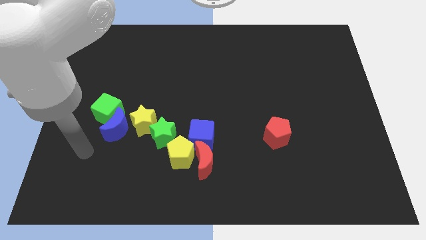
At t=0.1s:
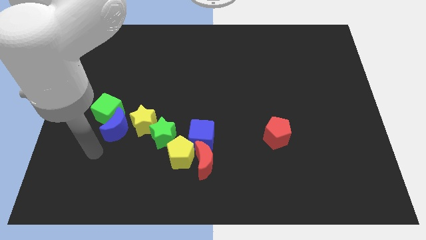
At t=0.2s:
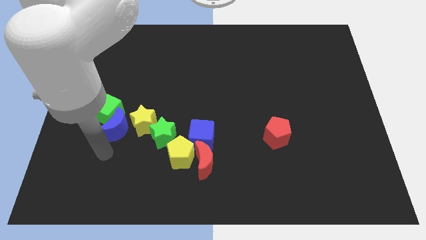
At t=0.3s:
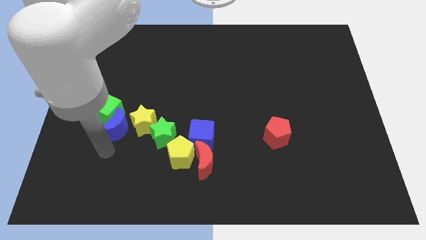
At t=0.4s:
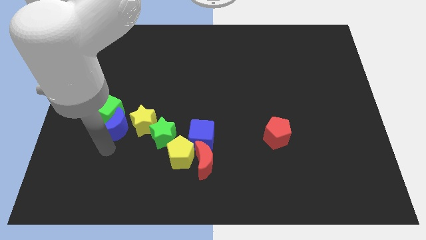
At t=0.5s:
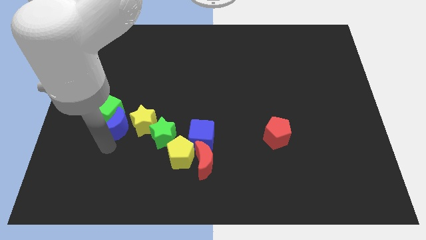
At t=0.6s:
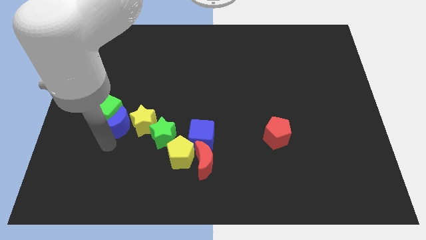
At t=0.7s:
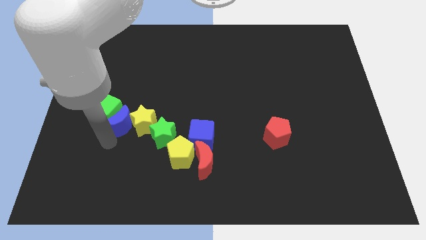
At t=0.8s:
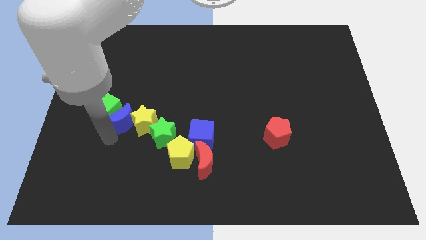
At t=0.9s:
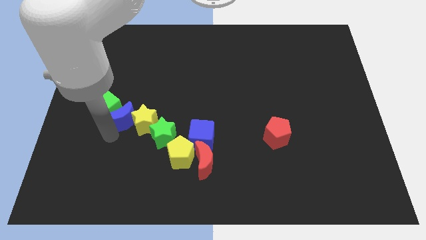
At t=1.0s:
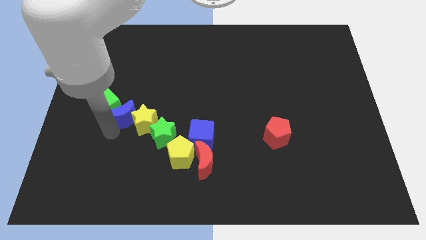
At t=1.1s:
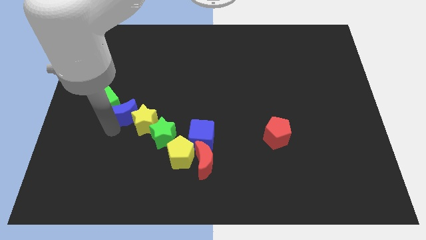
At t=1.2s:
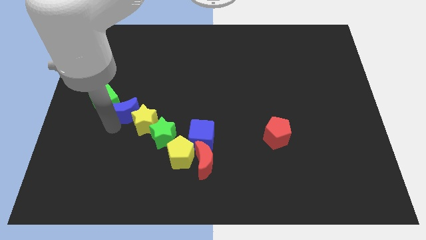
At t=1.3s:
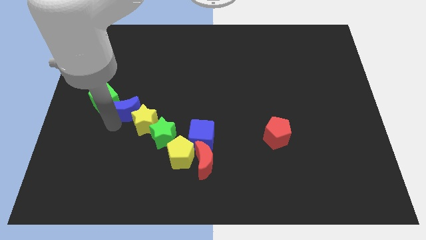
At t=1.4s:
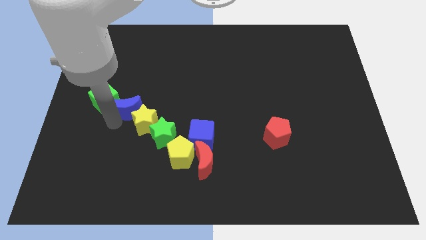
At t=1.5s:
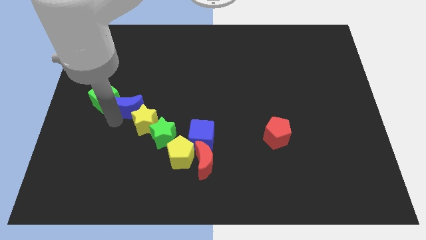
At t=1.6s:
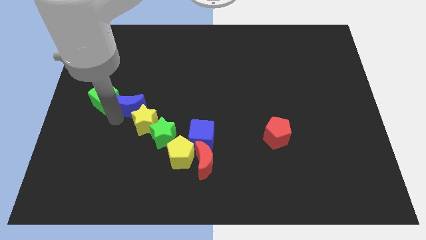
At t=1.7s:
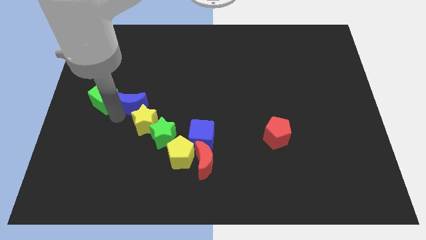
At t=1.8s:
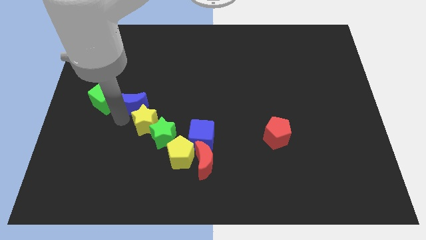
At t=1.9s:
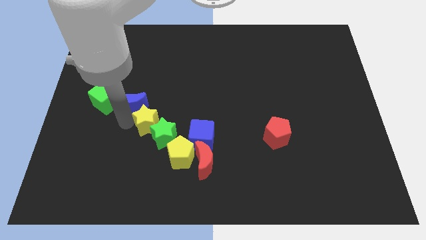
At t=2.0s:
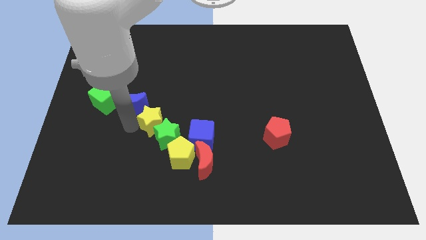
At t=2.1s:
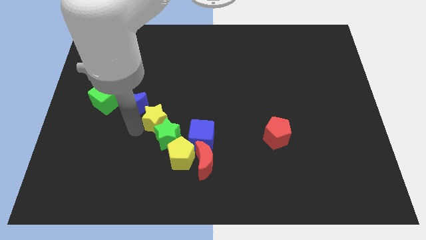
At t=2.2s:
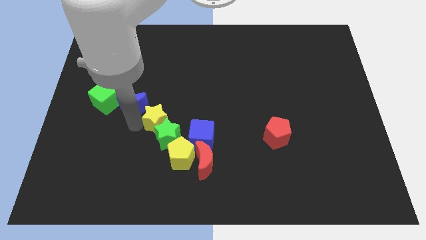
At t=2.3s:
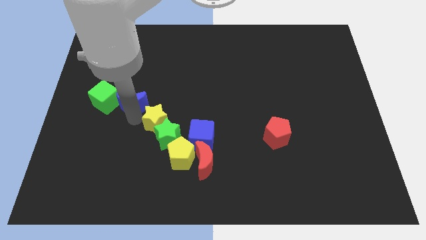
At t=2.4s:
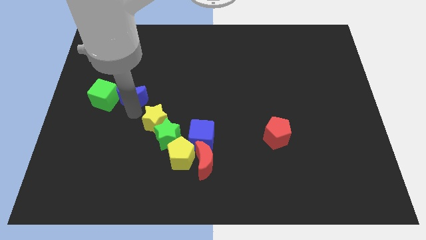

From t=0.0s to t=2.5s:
push the blue moon somewhat up

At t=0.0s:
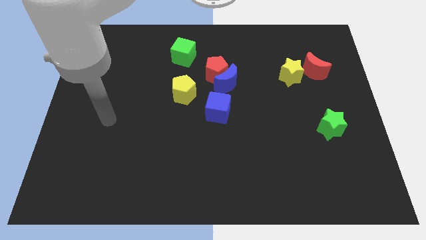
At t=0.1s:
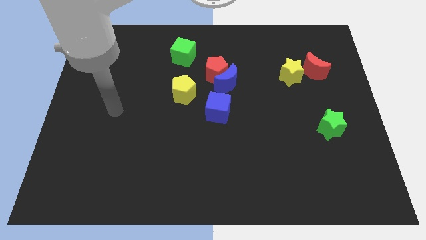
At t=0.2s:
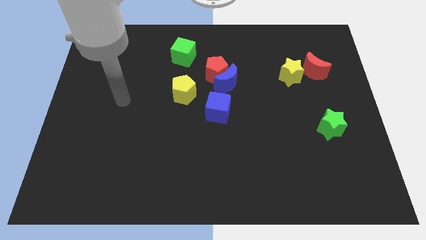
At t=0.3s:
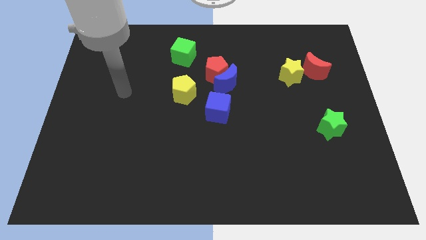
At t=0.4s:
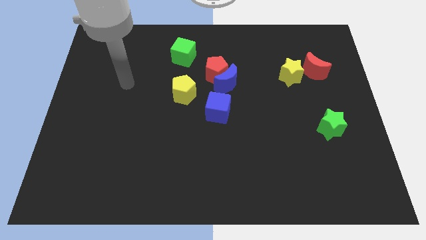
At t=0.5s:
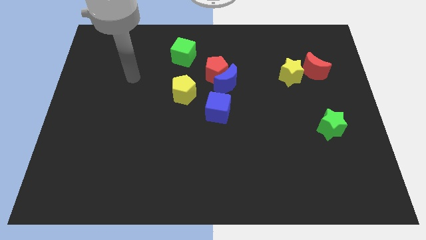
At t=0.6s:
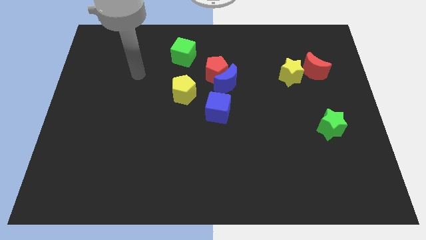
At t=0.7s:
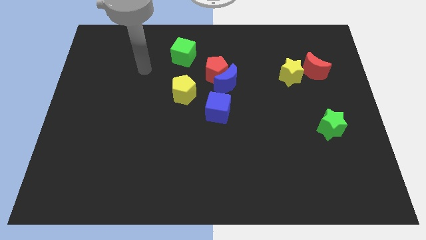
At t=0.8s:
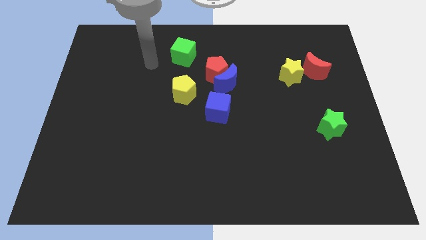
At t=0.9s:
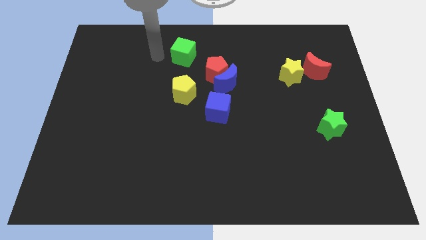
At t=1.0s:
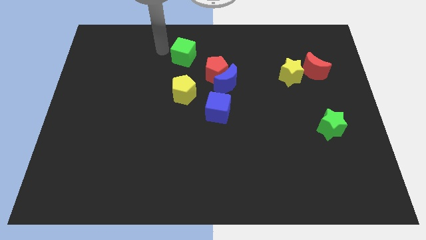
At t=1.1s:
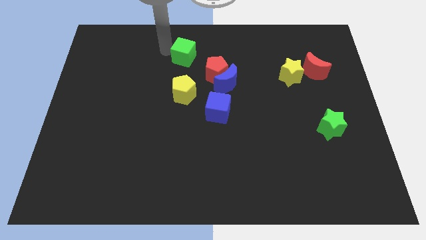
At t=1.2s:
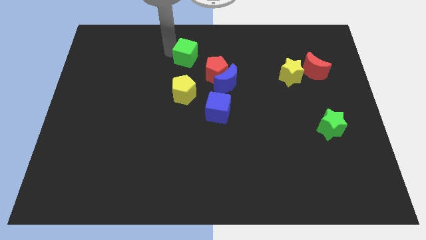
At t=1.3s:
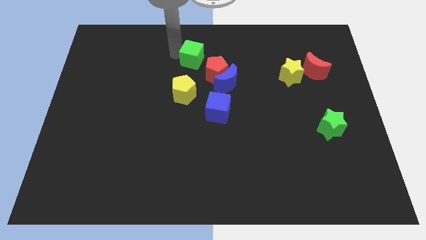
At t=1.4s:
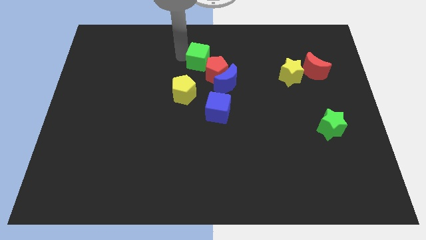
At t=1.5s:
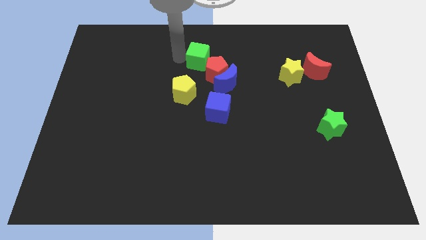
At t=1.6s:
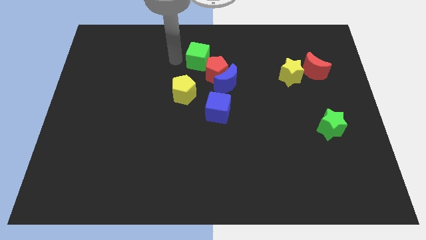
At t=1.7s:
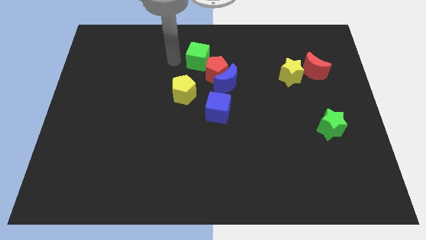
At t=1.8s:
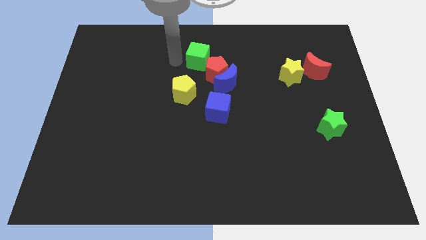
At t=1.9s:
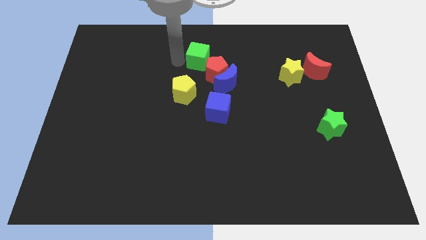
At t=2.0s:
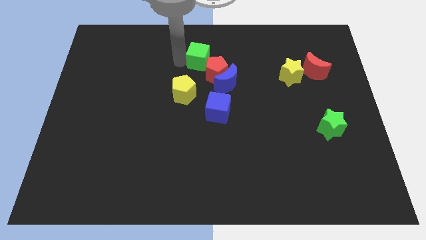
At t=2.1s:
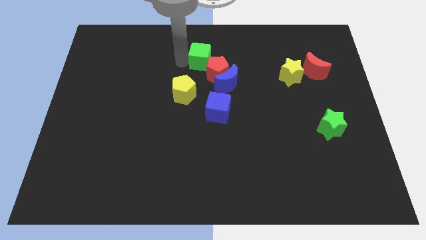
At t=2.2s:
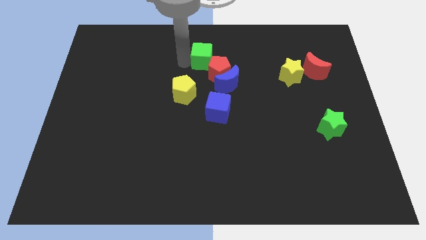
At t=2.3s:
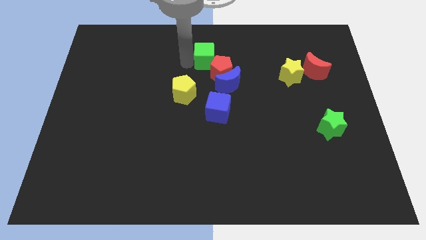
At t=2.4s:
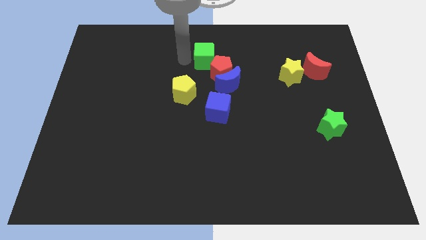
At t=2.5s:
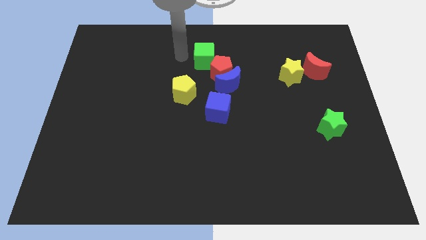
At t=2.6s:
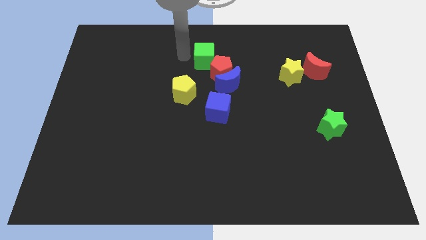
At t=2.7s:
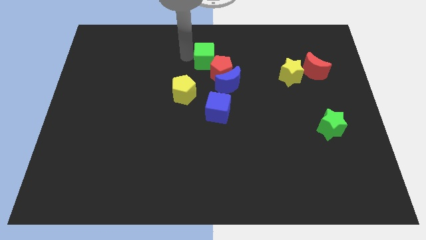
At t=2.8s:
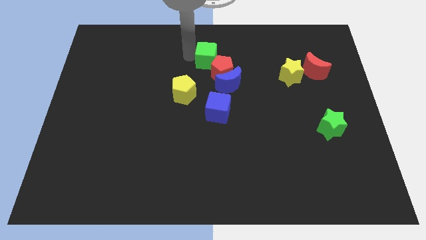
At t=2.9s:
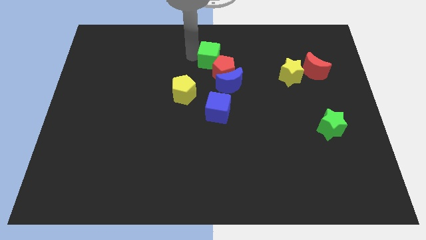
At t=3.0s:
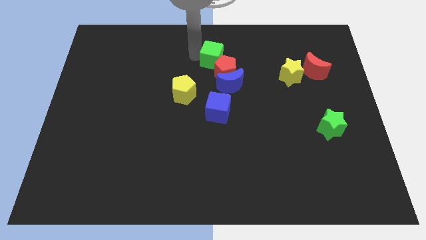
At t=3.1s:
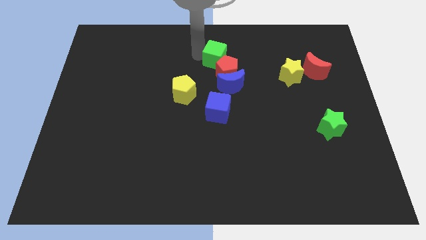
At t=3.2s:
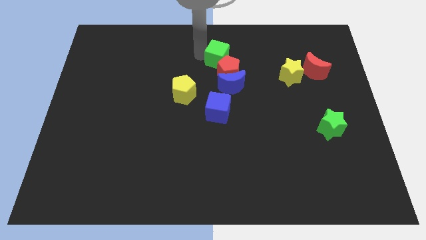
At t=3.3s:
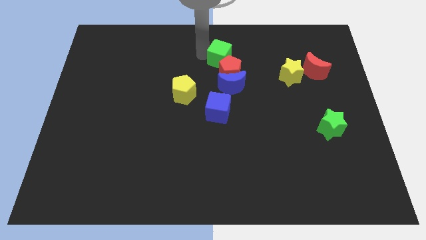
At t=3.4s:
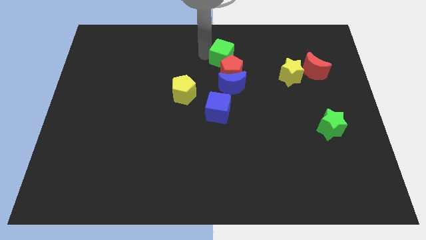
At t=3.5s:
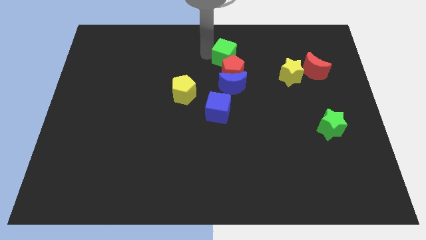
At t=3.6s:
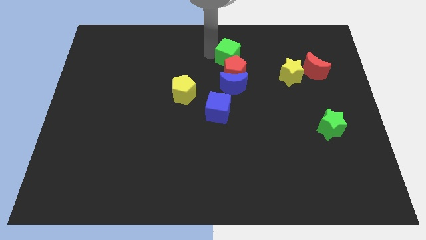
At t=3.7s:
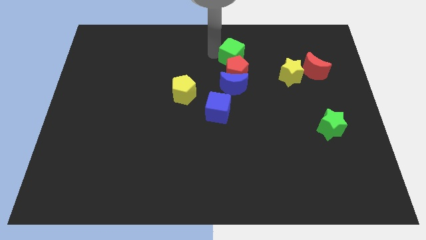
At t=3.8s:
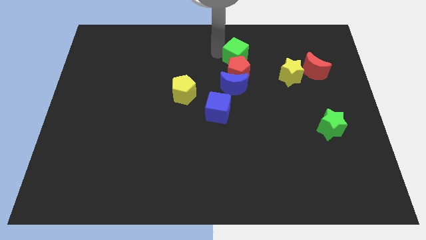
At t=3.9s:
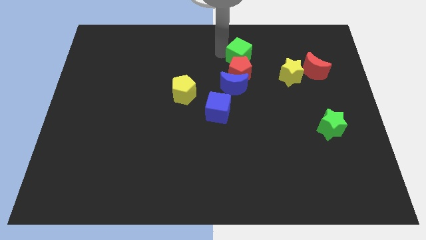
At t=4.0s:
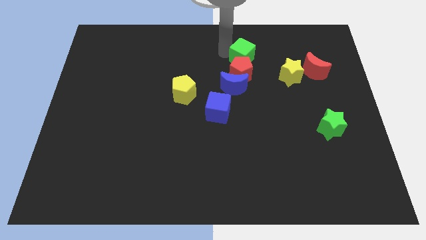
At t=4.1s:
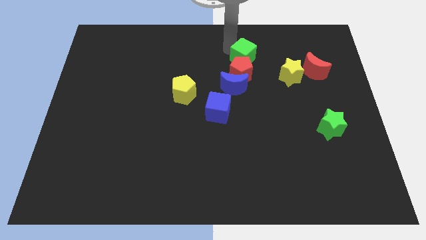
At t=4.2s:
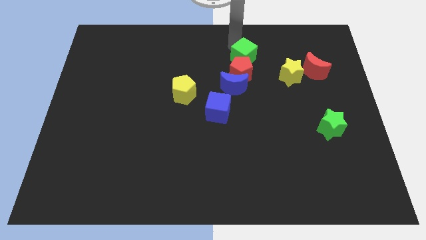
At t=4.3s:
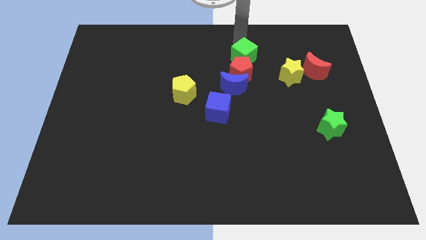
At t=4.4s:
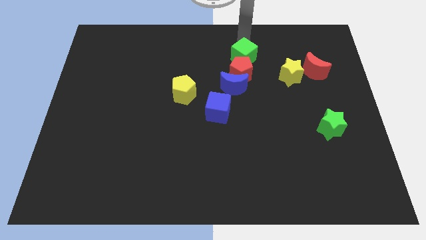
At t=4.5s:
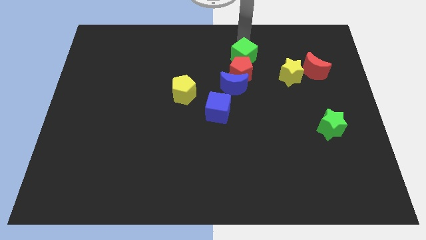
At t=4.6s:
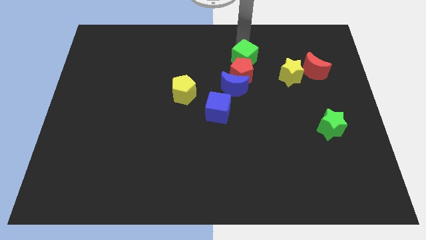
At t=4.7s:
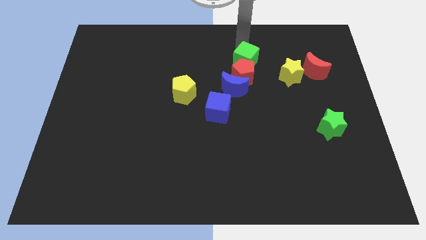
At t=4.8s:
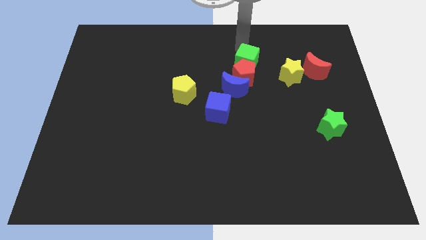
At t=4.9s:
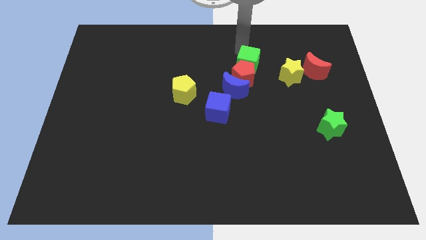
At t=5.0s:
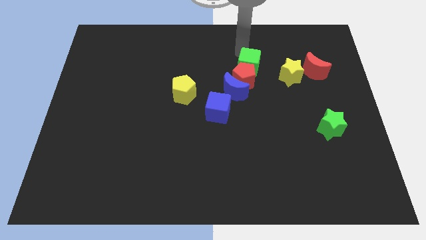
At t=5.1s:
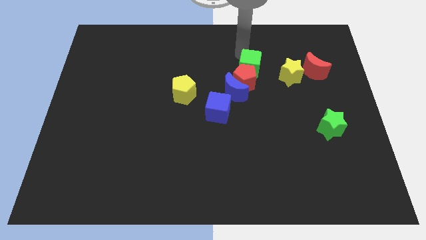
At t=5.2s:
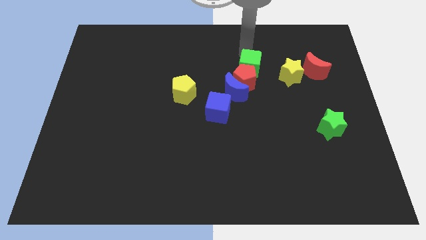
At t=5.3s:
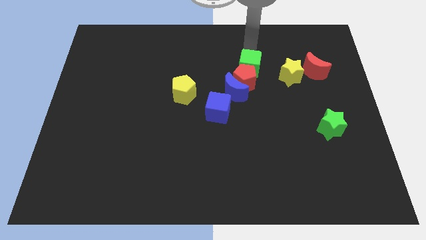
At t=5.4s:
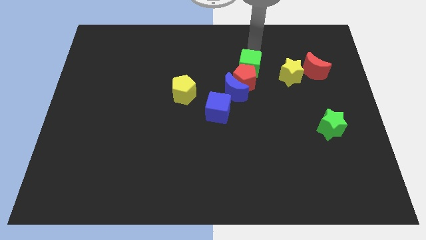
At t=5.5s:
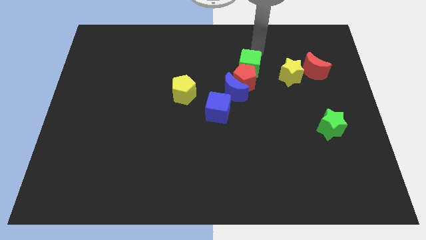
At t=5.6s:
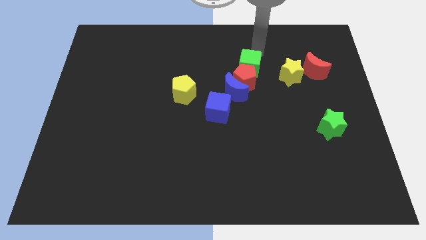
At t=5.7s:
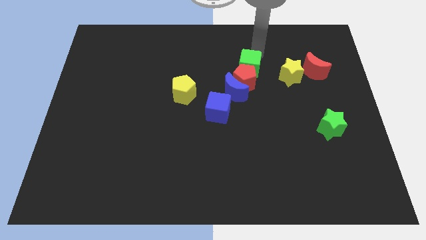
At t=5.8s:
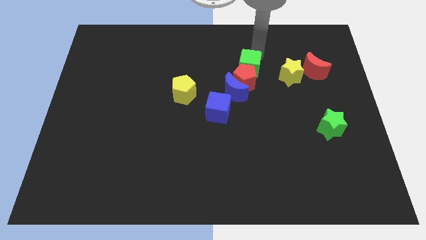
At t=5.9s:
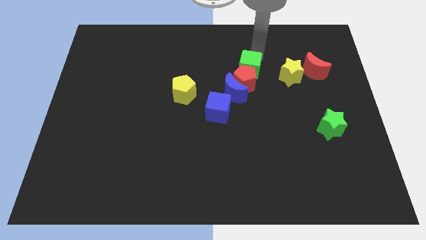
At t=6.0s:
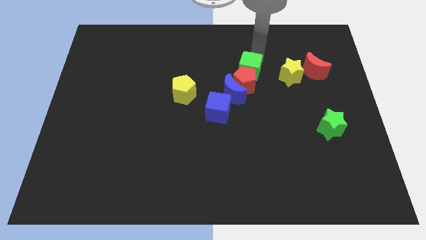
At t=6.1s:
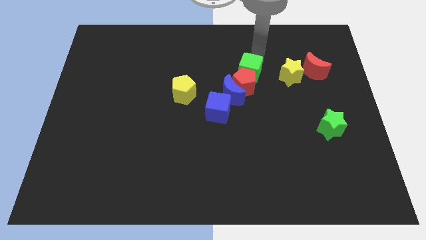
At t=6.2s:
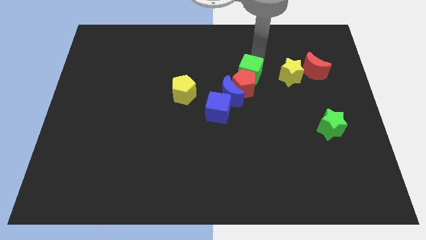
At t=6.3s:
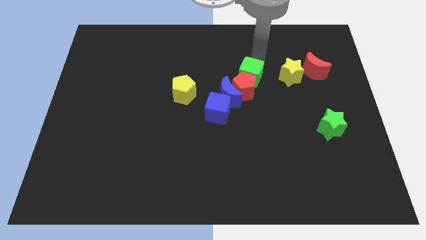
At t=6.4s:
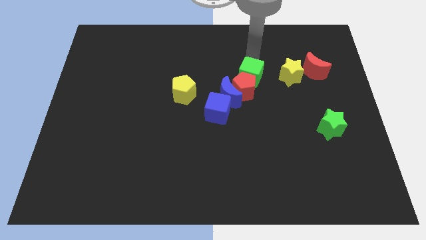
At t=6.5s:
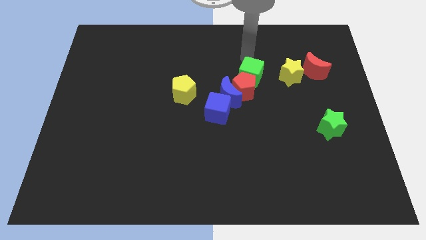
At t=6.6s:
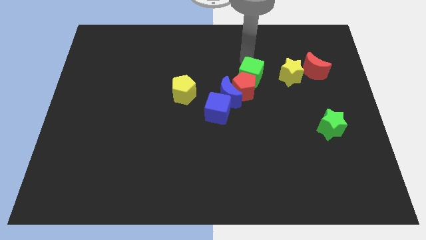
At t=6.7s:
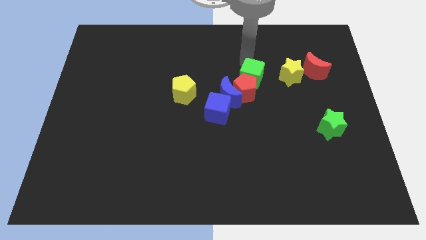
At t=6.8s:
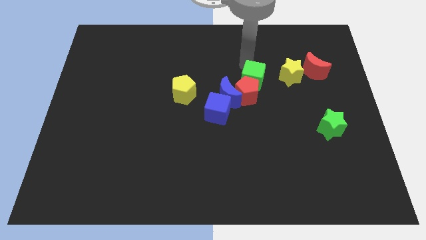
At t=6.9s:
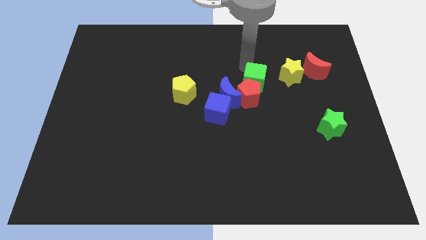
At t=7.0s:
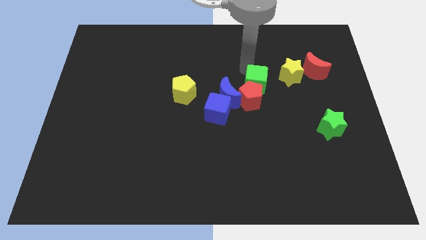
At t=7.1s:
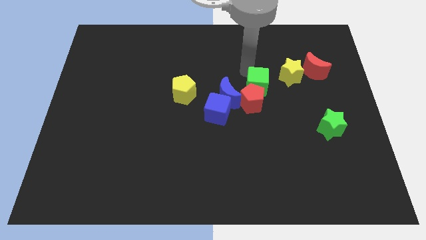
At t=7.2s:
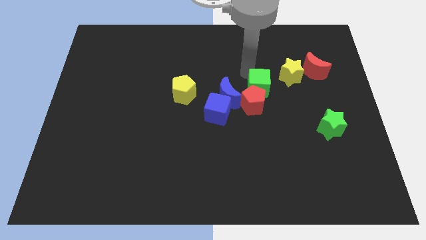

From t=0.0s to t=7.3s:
move the green cube diagonally downwards and to the right
